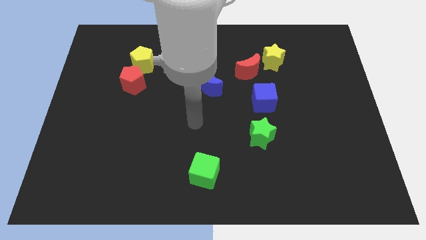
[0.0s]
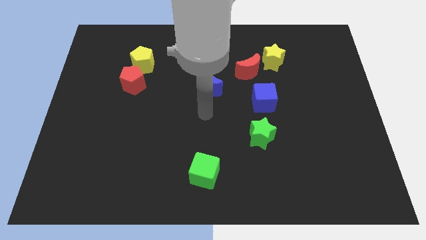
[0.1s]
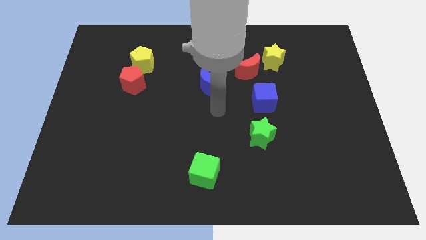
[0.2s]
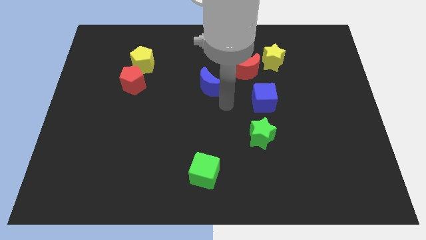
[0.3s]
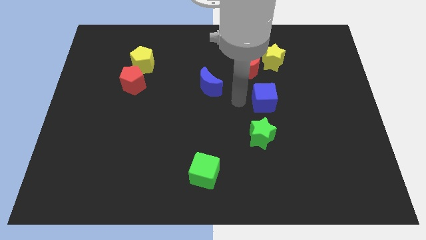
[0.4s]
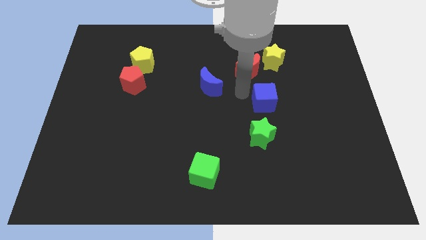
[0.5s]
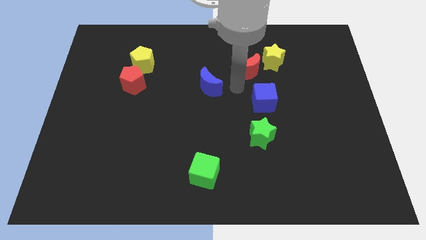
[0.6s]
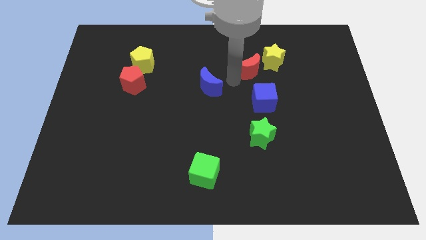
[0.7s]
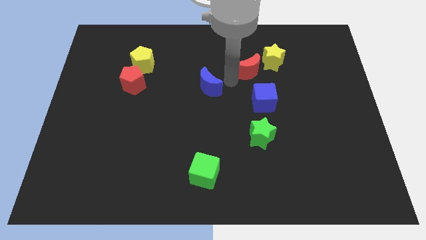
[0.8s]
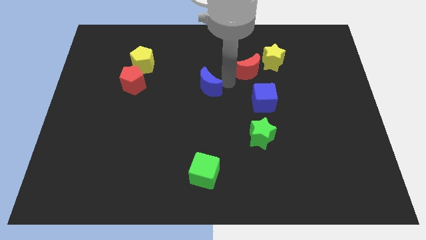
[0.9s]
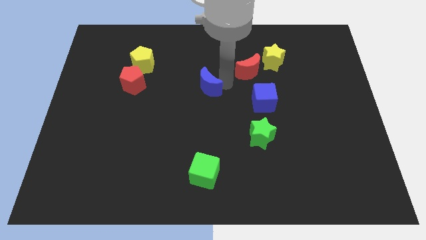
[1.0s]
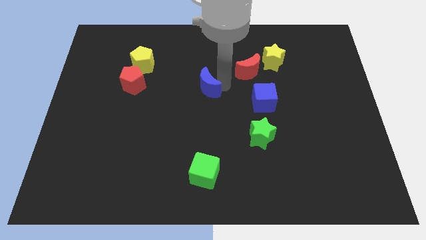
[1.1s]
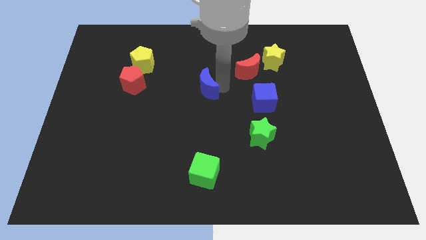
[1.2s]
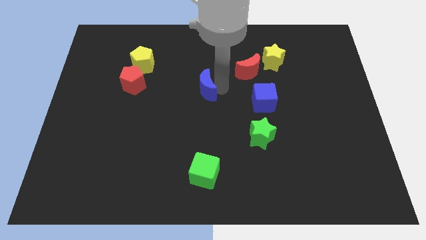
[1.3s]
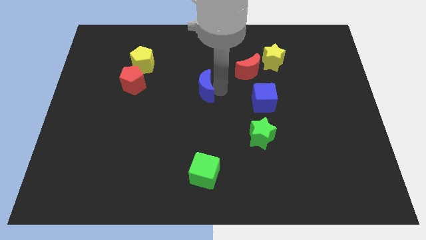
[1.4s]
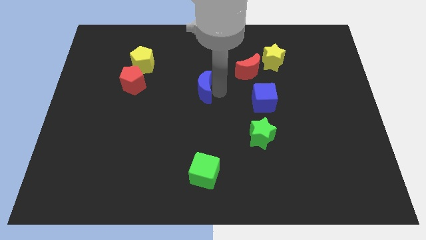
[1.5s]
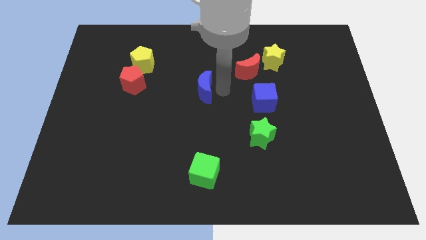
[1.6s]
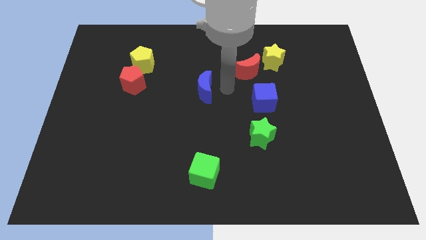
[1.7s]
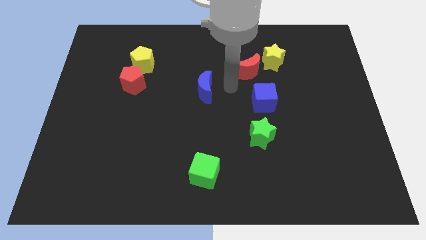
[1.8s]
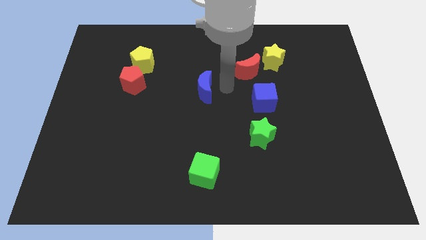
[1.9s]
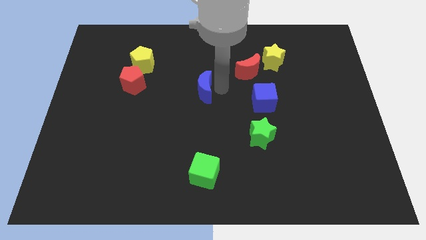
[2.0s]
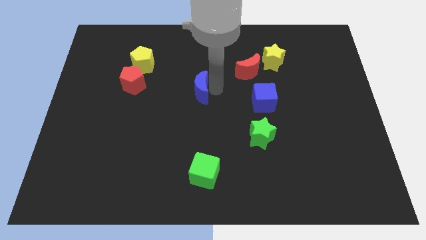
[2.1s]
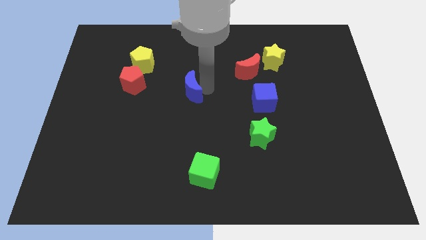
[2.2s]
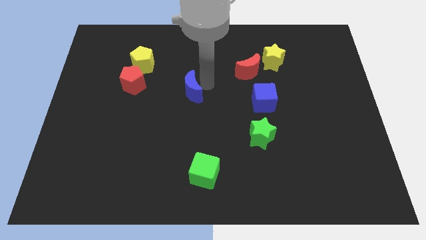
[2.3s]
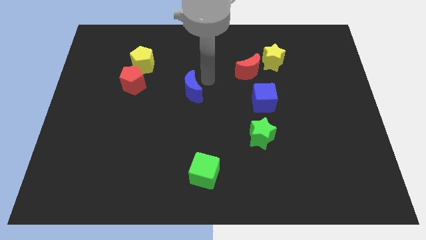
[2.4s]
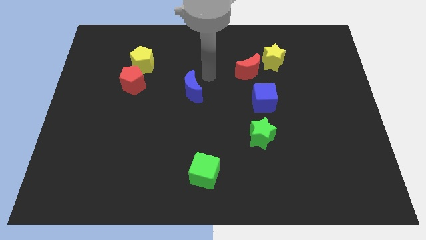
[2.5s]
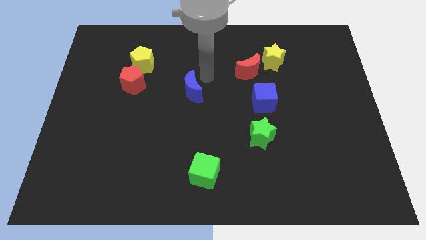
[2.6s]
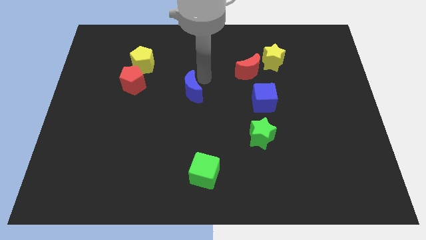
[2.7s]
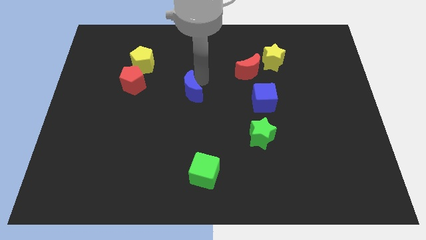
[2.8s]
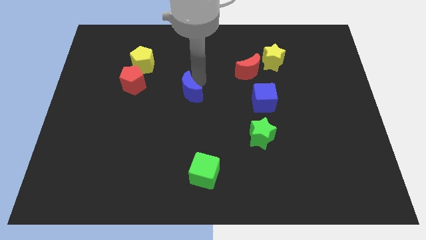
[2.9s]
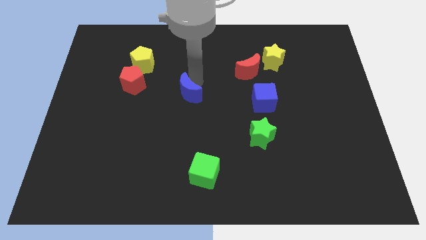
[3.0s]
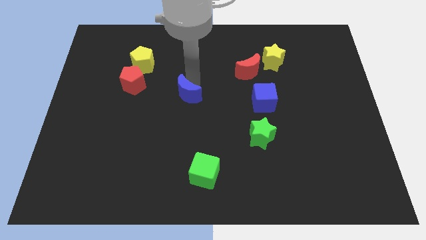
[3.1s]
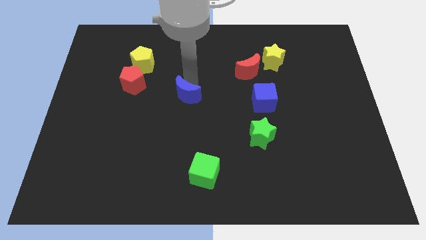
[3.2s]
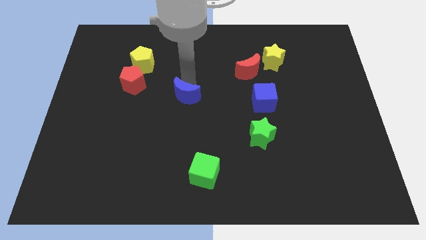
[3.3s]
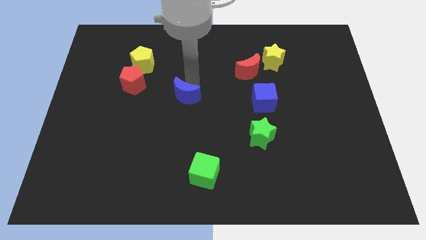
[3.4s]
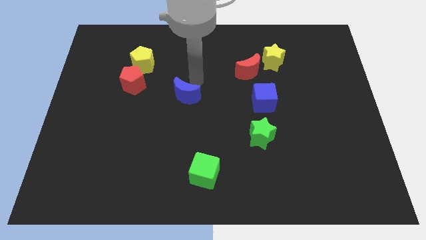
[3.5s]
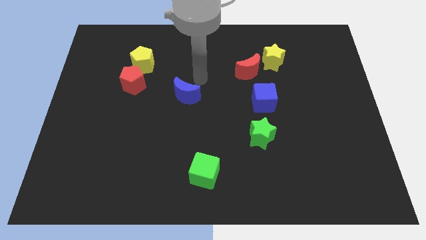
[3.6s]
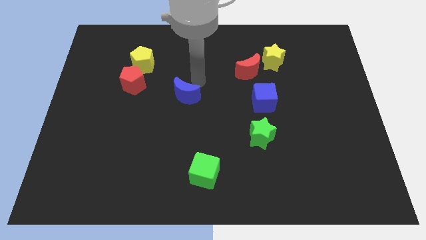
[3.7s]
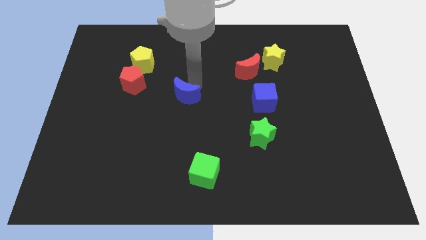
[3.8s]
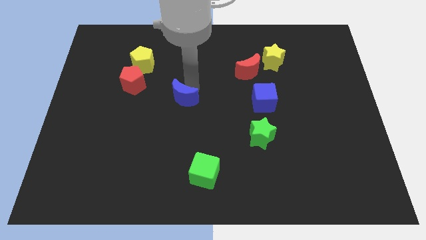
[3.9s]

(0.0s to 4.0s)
slide the blue moon diagonally downwards and to the left a little

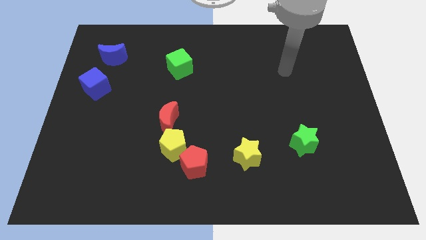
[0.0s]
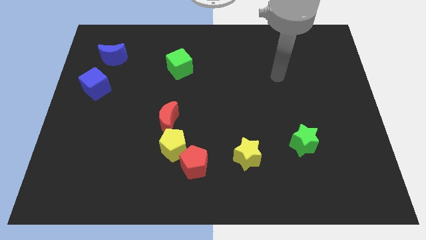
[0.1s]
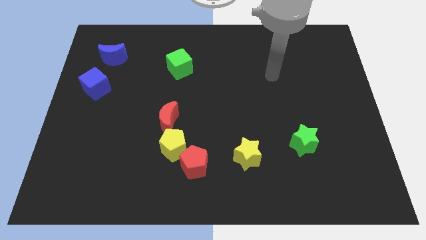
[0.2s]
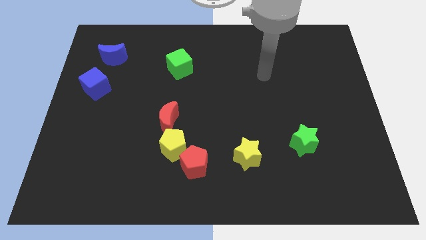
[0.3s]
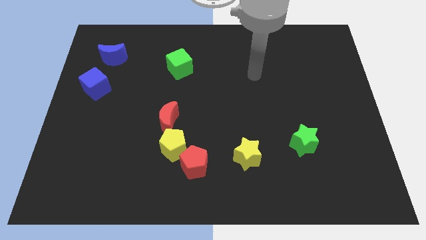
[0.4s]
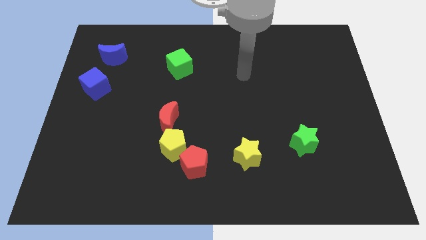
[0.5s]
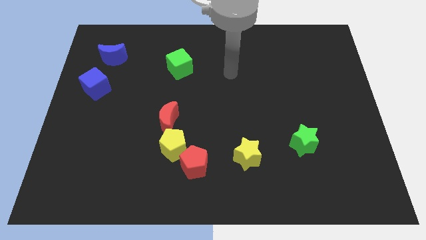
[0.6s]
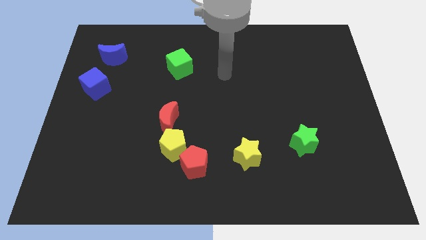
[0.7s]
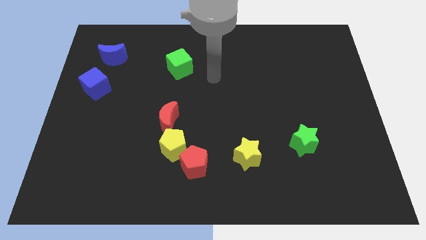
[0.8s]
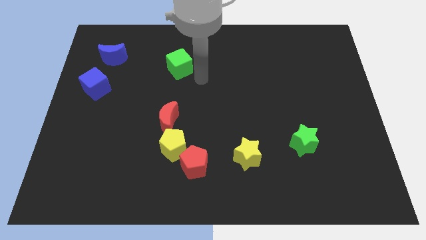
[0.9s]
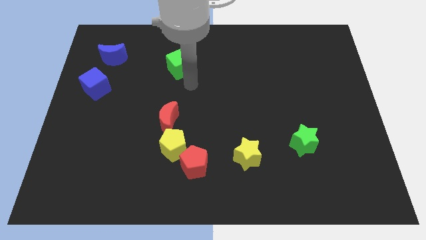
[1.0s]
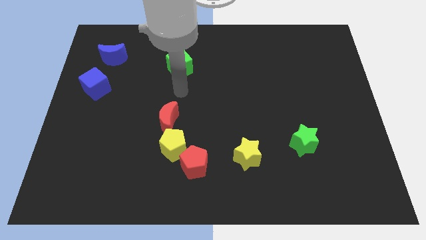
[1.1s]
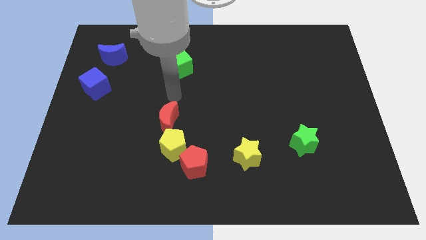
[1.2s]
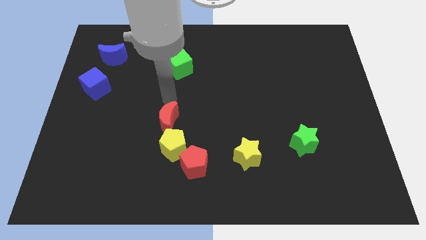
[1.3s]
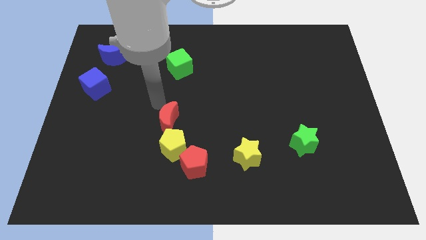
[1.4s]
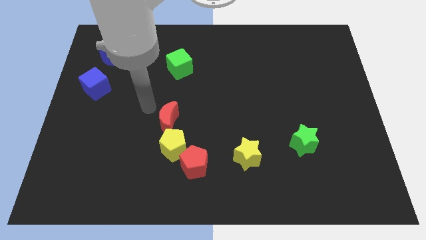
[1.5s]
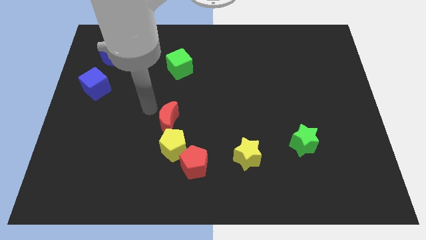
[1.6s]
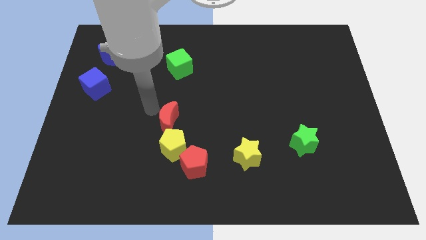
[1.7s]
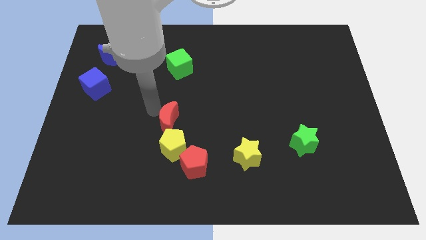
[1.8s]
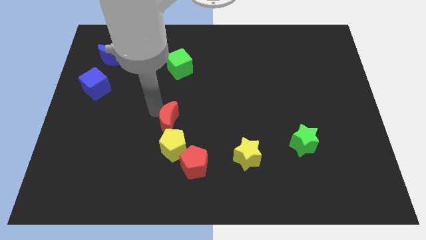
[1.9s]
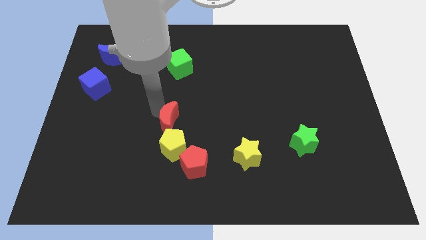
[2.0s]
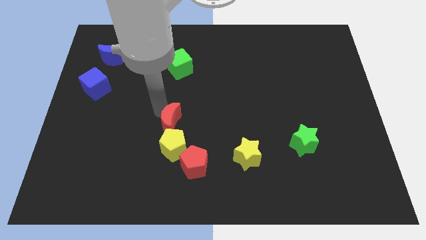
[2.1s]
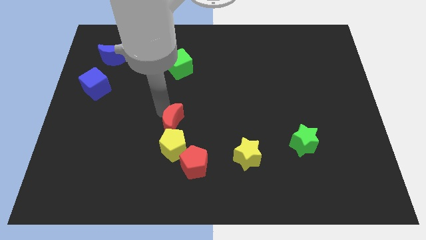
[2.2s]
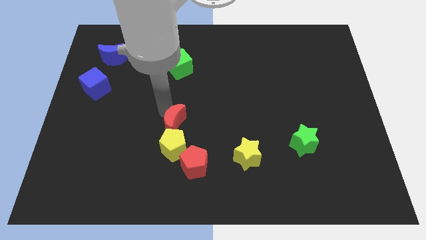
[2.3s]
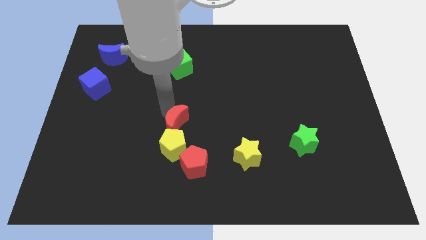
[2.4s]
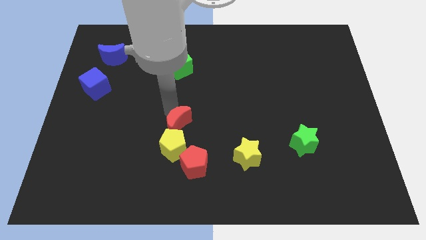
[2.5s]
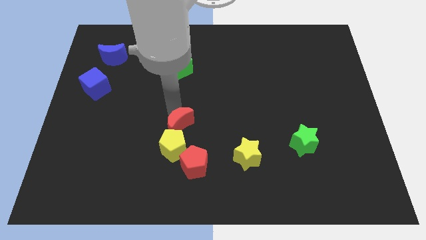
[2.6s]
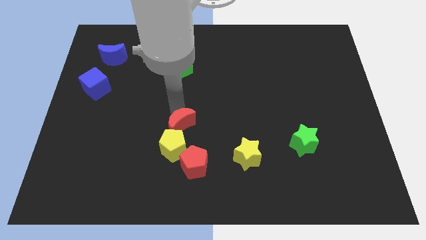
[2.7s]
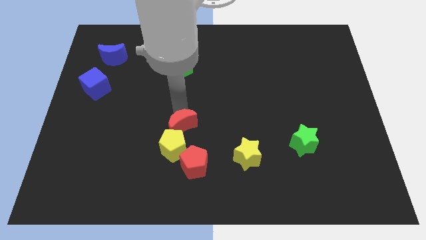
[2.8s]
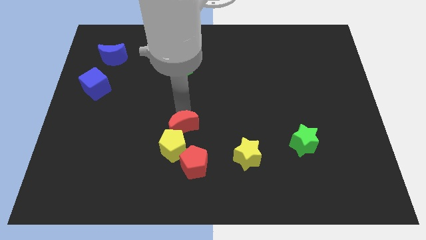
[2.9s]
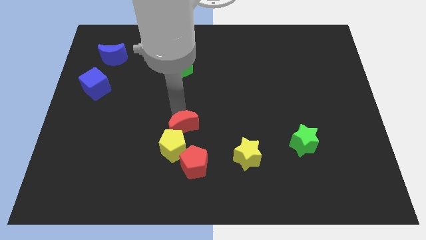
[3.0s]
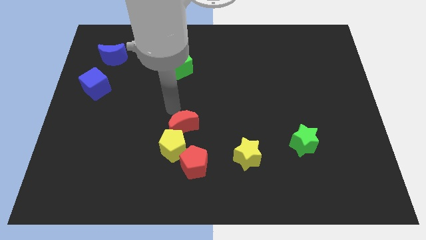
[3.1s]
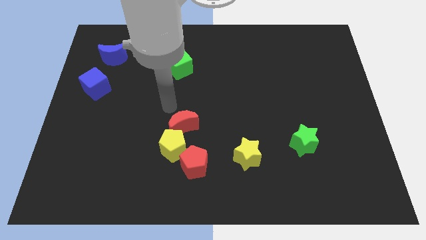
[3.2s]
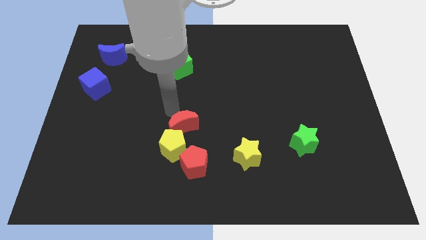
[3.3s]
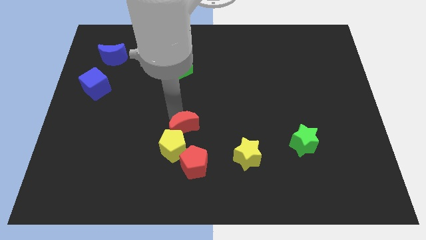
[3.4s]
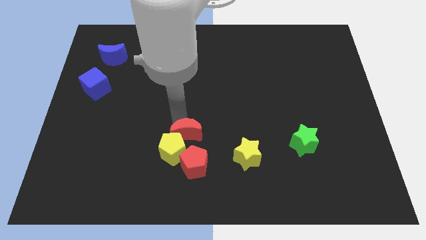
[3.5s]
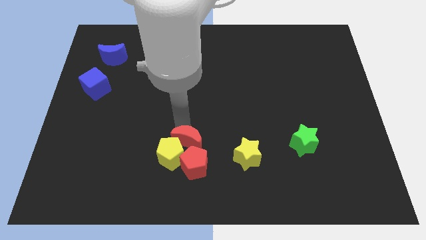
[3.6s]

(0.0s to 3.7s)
move the red moon slightly diagonally down and right
